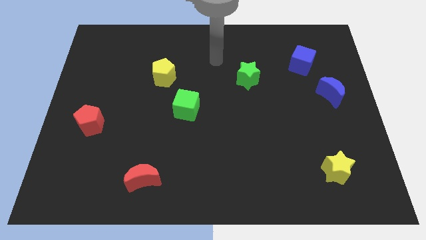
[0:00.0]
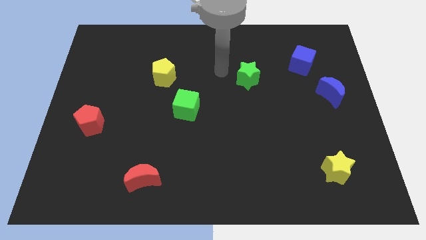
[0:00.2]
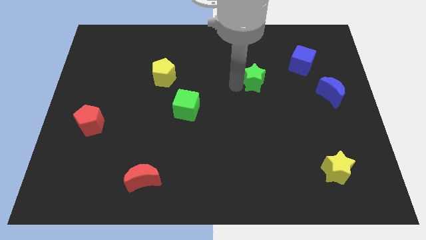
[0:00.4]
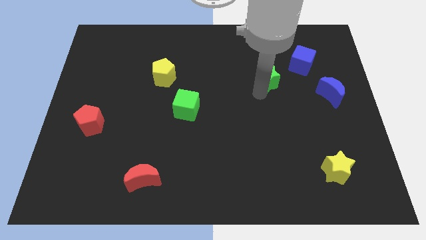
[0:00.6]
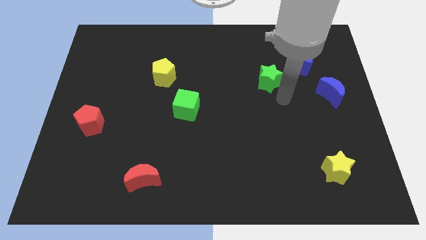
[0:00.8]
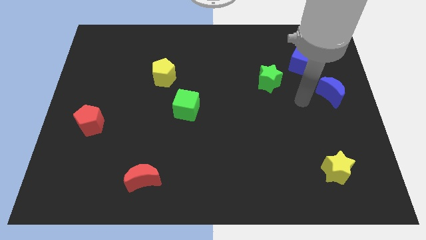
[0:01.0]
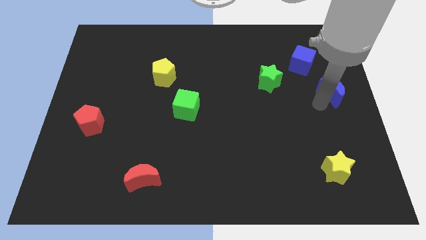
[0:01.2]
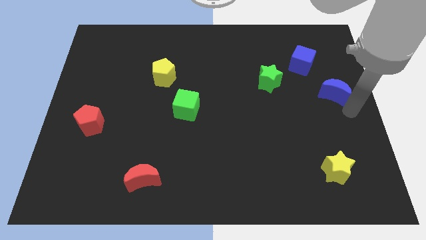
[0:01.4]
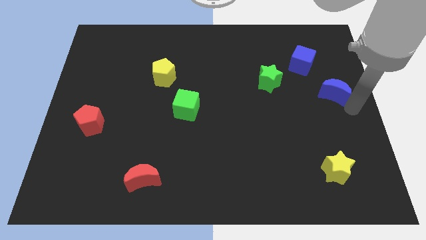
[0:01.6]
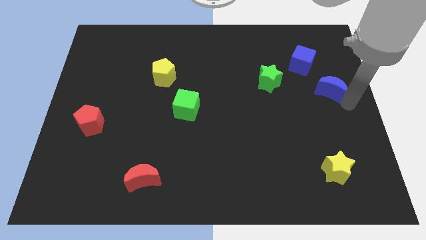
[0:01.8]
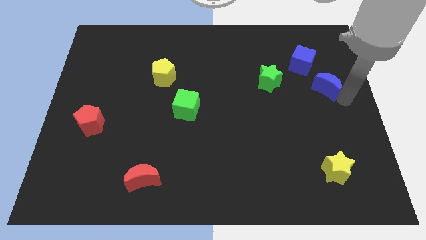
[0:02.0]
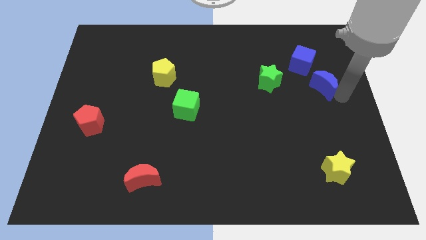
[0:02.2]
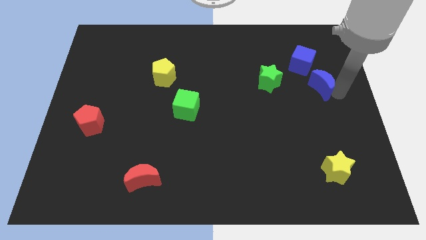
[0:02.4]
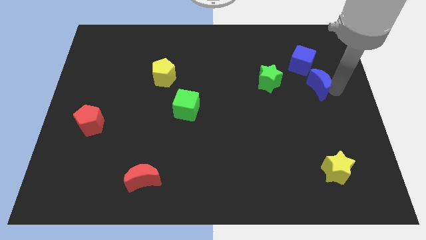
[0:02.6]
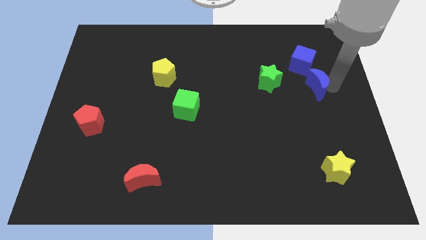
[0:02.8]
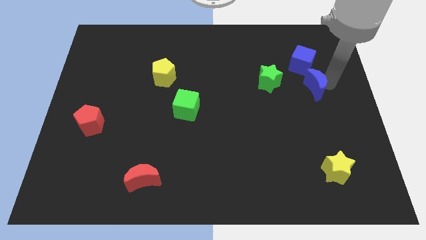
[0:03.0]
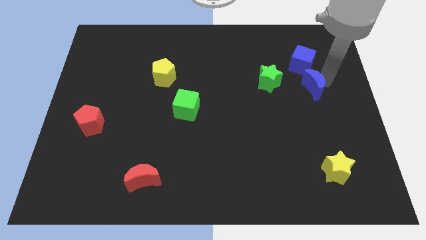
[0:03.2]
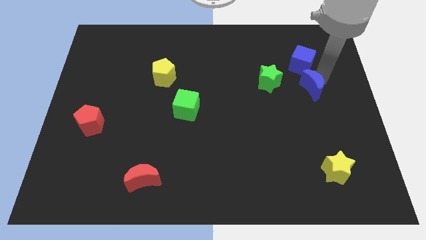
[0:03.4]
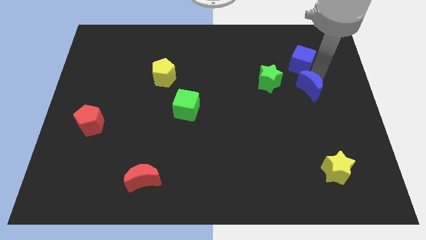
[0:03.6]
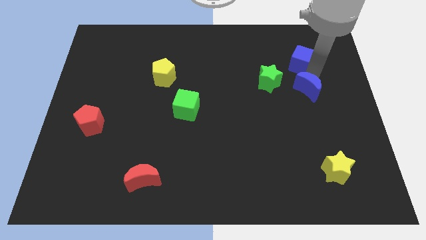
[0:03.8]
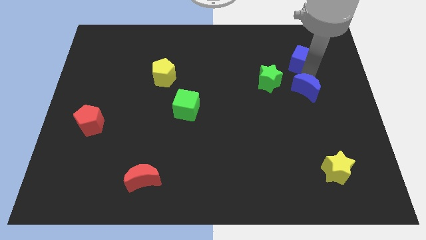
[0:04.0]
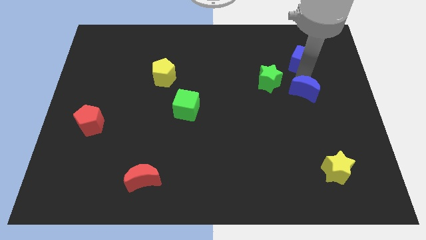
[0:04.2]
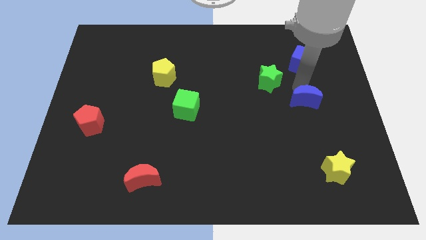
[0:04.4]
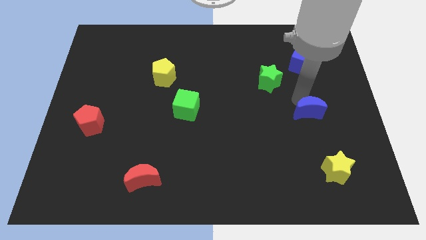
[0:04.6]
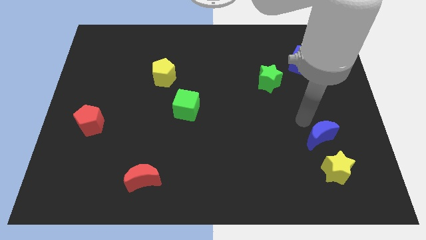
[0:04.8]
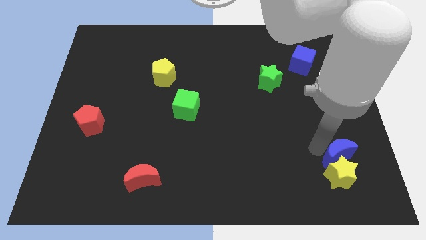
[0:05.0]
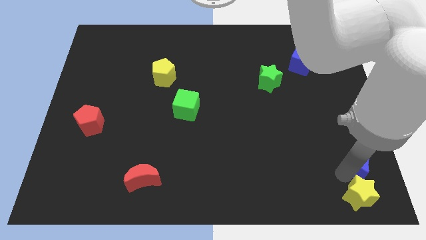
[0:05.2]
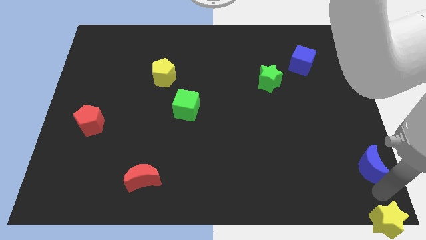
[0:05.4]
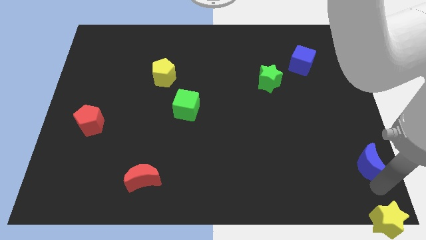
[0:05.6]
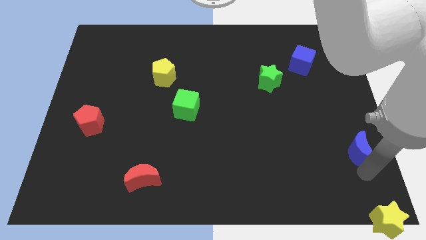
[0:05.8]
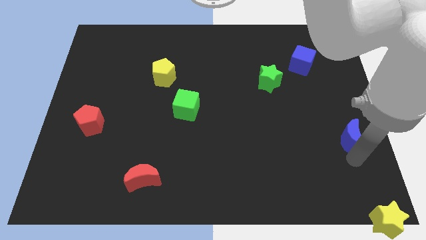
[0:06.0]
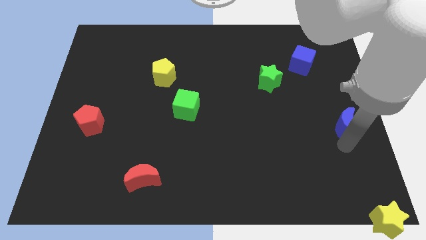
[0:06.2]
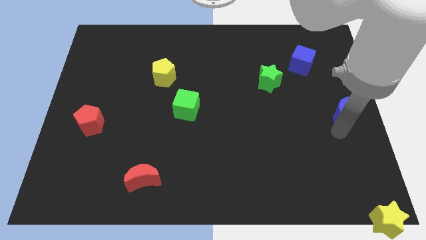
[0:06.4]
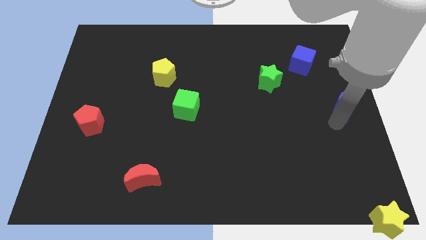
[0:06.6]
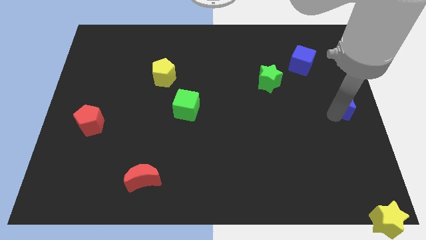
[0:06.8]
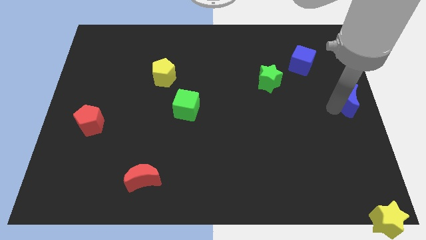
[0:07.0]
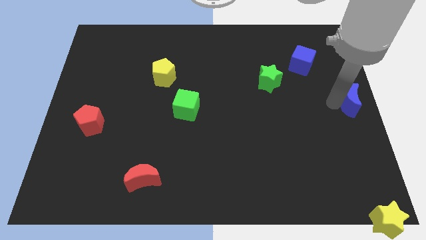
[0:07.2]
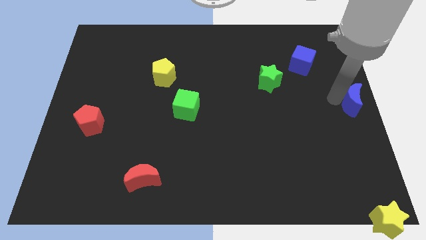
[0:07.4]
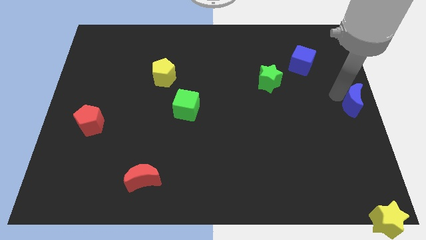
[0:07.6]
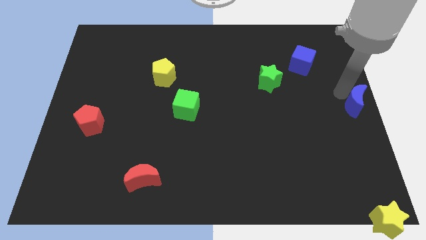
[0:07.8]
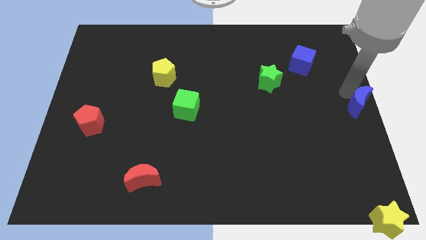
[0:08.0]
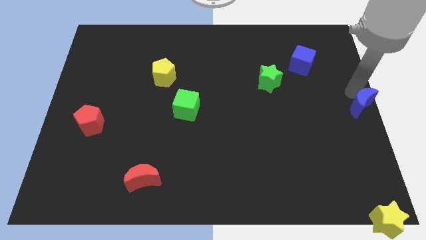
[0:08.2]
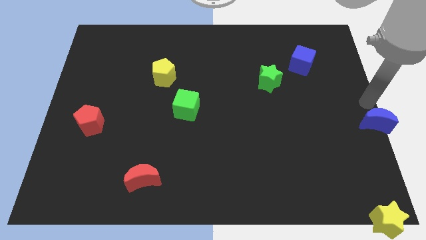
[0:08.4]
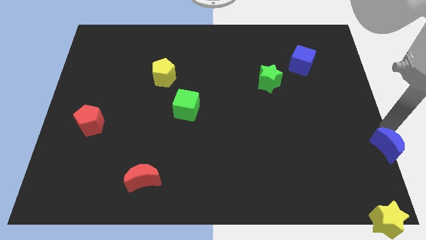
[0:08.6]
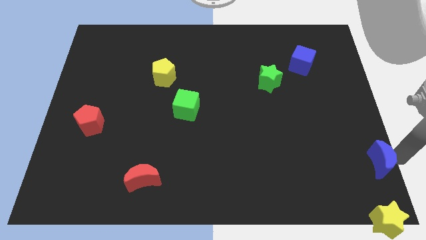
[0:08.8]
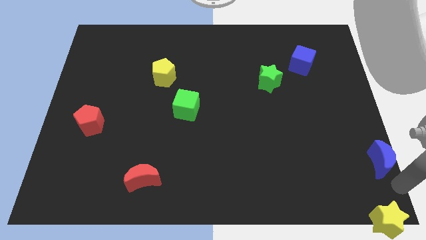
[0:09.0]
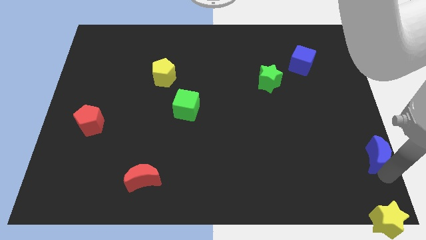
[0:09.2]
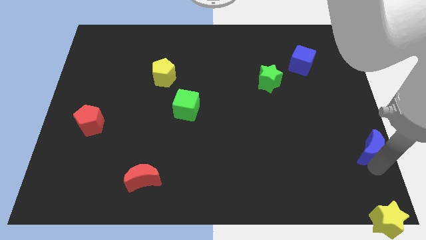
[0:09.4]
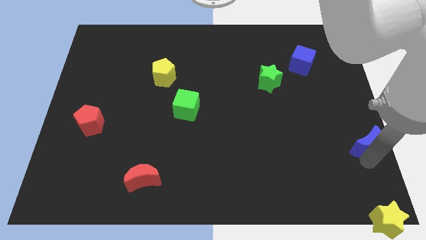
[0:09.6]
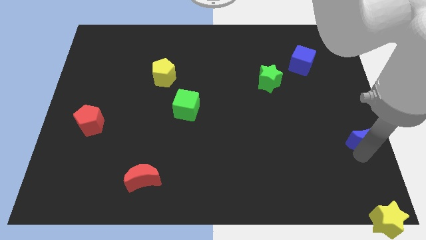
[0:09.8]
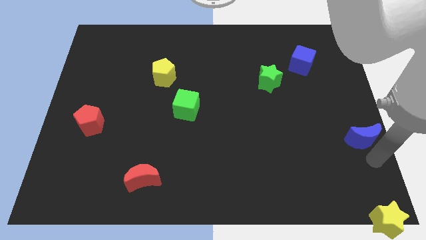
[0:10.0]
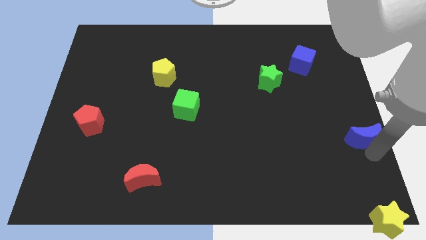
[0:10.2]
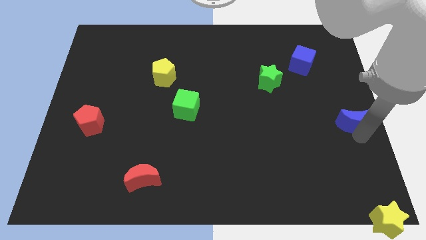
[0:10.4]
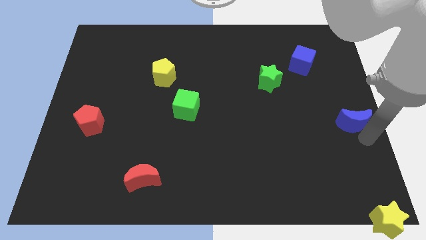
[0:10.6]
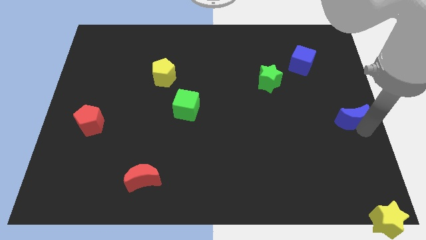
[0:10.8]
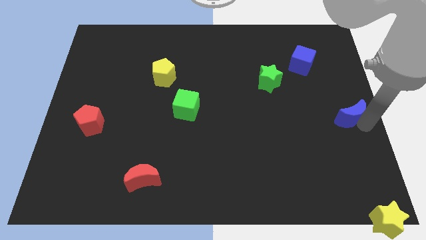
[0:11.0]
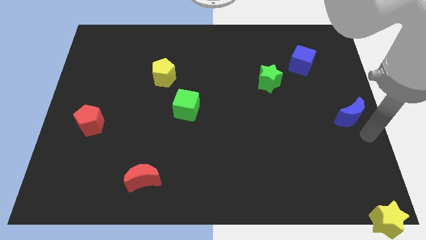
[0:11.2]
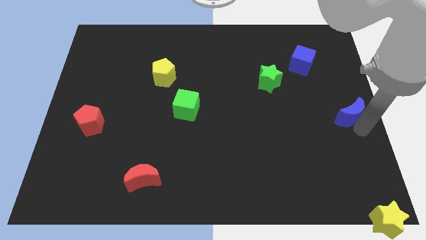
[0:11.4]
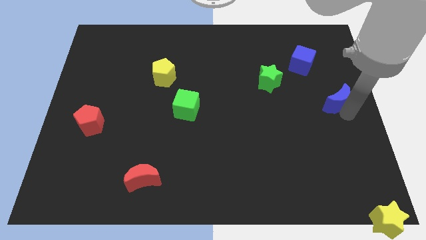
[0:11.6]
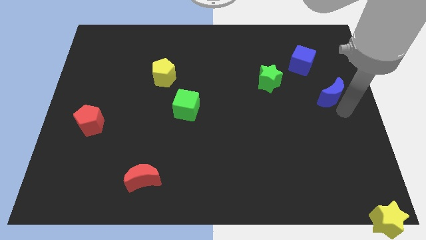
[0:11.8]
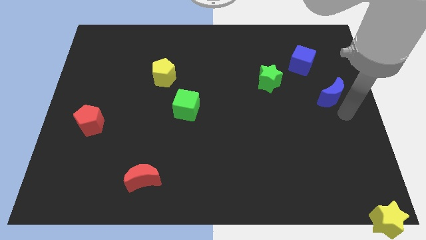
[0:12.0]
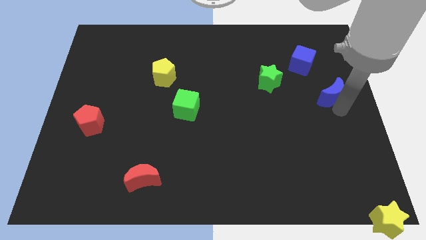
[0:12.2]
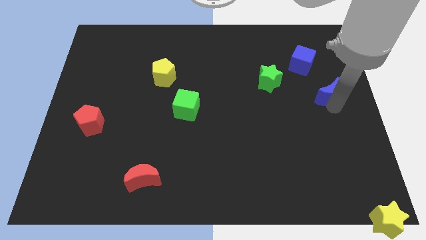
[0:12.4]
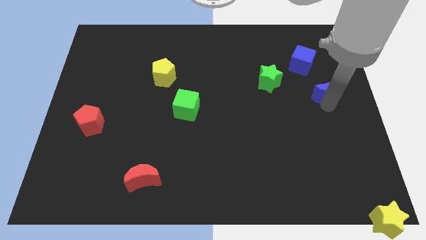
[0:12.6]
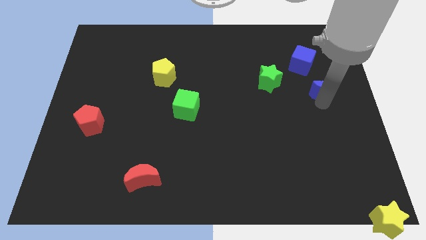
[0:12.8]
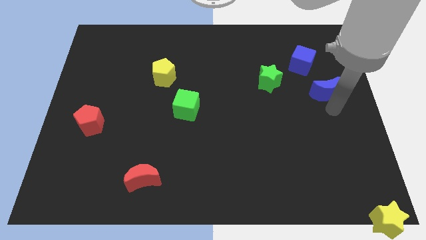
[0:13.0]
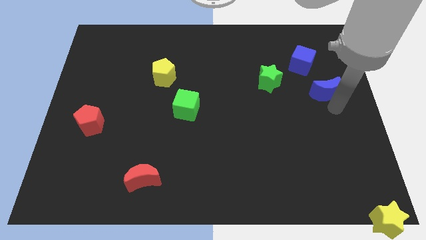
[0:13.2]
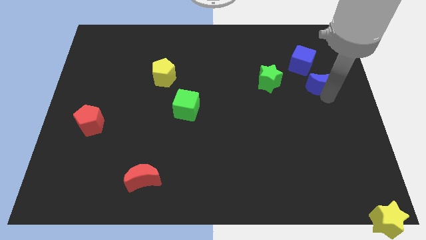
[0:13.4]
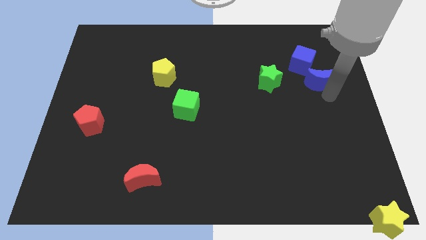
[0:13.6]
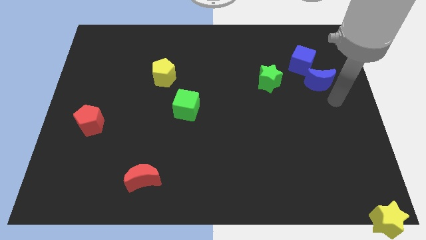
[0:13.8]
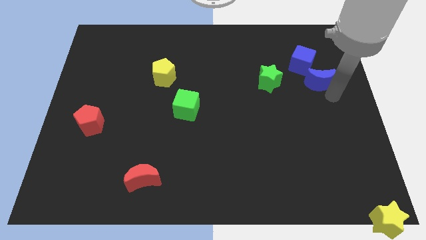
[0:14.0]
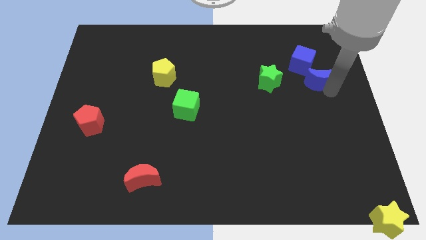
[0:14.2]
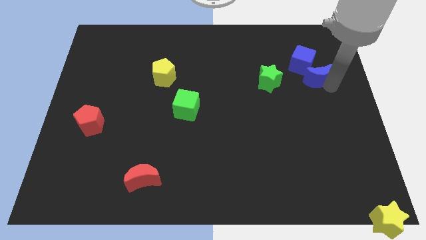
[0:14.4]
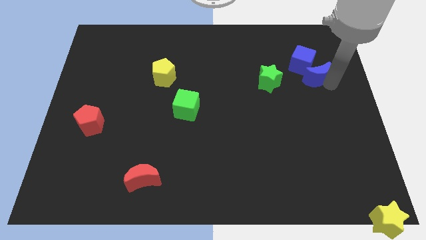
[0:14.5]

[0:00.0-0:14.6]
move the blue moon close to the blue cube

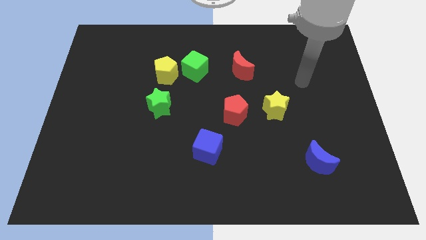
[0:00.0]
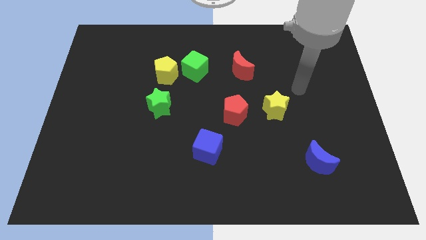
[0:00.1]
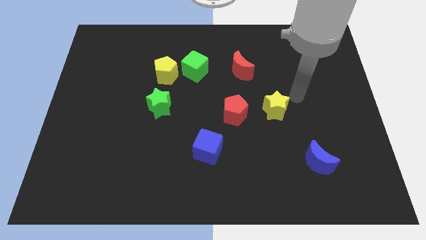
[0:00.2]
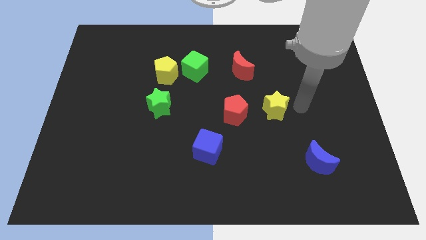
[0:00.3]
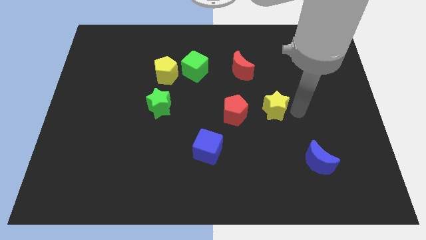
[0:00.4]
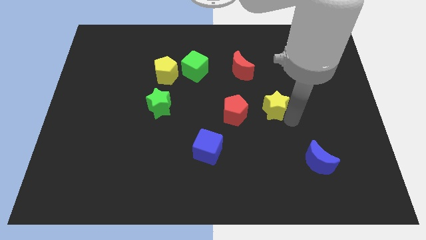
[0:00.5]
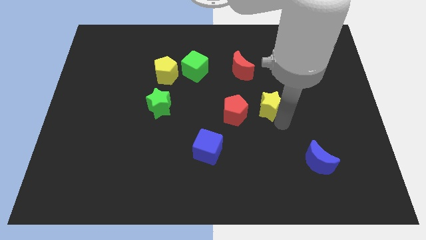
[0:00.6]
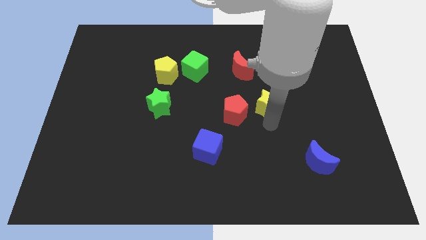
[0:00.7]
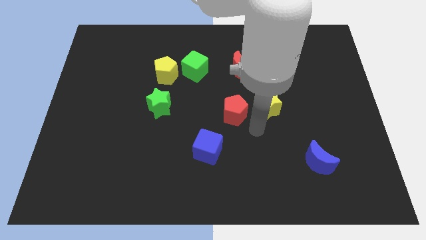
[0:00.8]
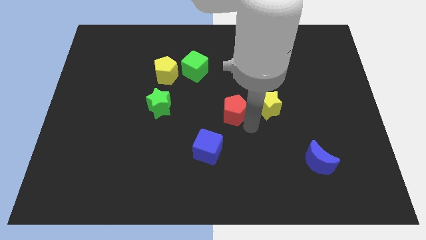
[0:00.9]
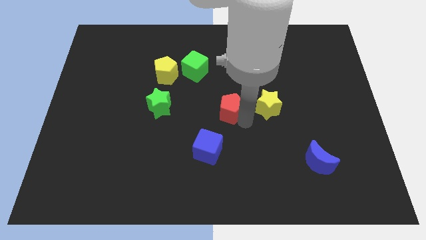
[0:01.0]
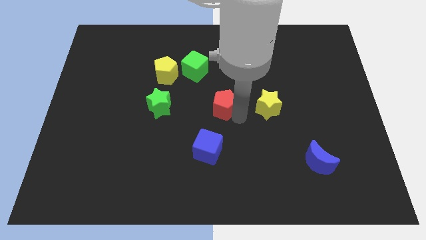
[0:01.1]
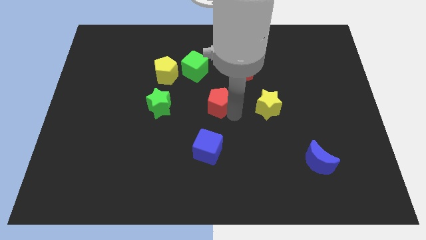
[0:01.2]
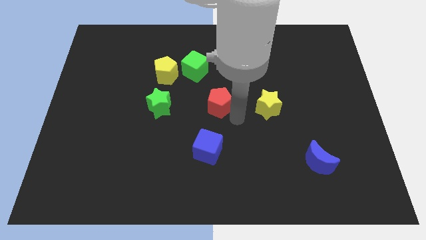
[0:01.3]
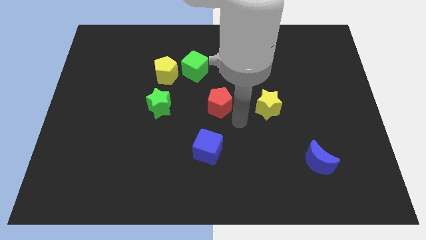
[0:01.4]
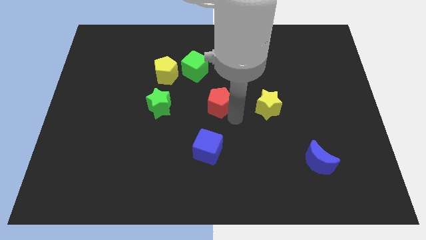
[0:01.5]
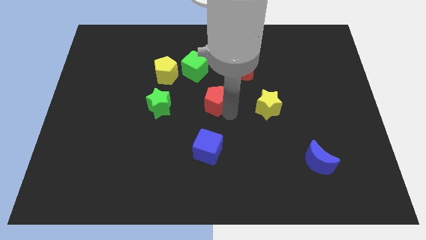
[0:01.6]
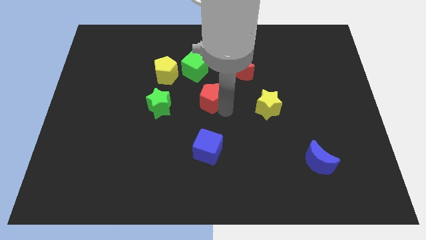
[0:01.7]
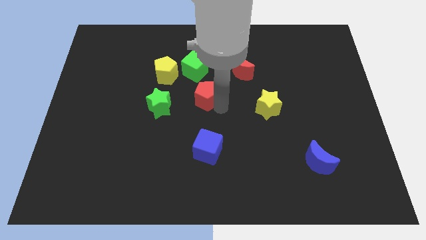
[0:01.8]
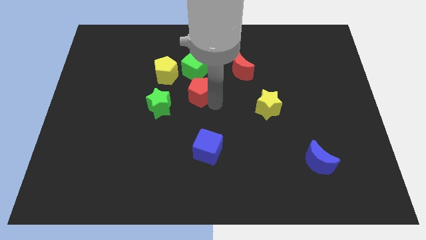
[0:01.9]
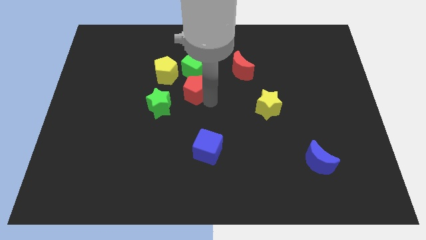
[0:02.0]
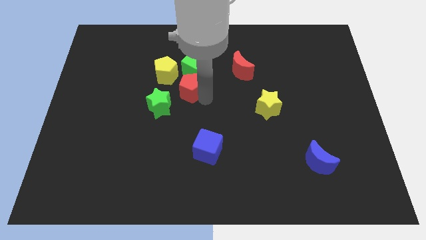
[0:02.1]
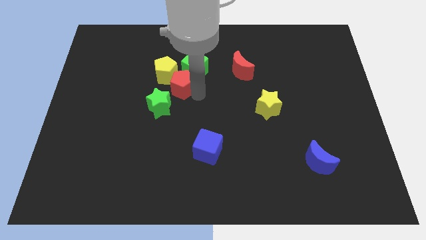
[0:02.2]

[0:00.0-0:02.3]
put the red pentagon towards the yellow pentagon
